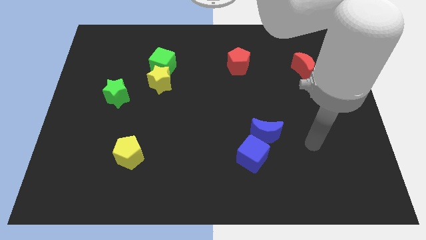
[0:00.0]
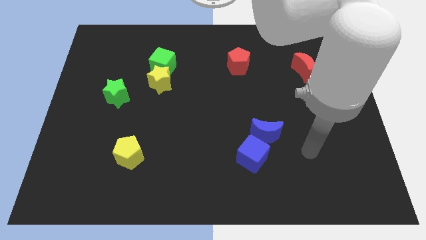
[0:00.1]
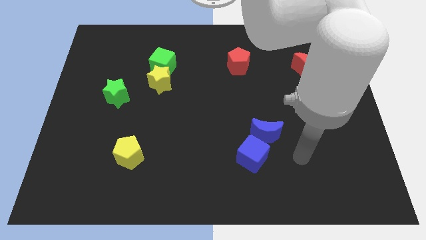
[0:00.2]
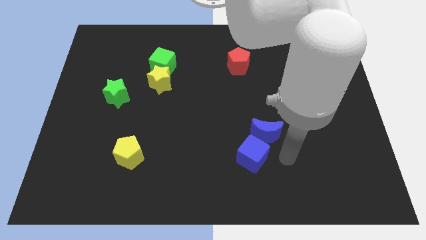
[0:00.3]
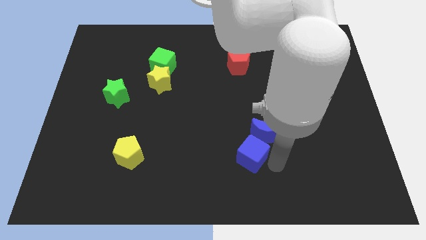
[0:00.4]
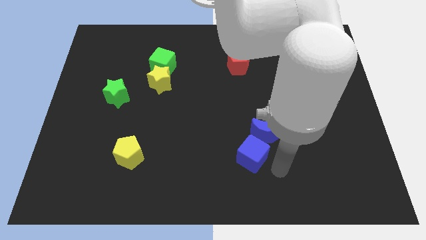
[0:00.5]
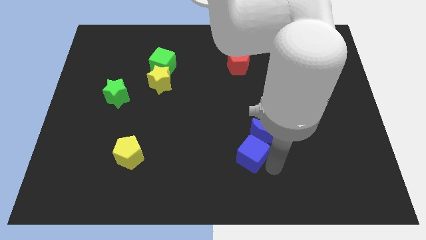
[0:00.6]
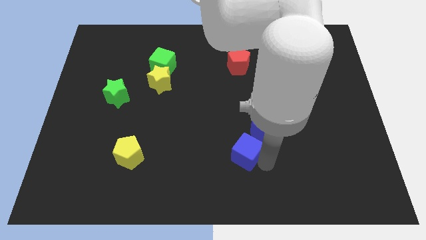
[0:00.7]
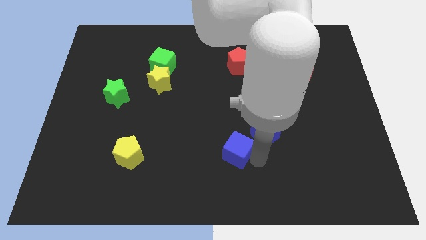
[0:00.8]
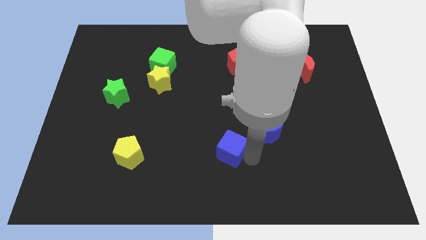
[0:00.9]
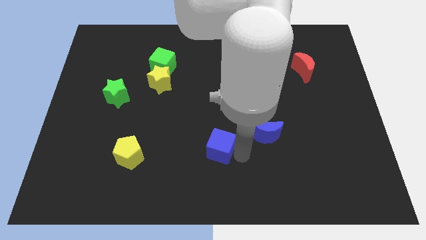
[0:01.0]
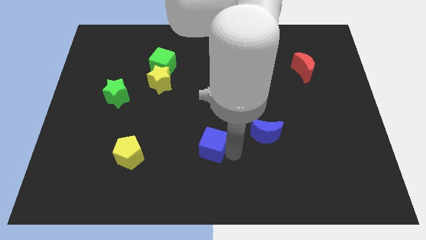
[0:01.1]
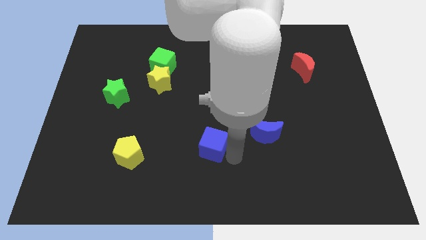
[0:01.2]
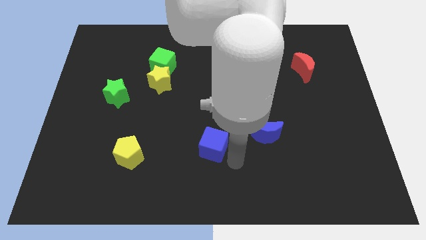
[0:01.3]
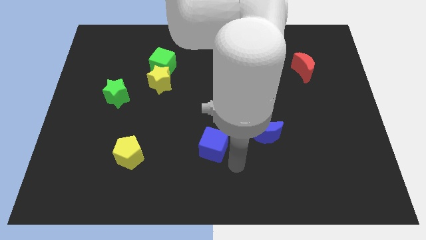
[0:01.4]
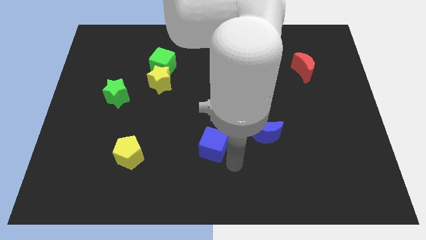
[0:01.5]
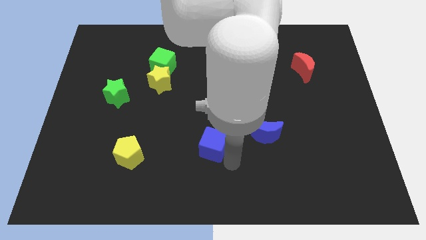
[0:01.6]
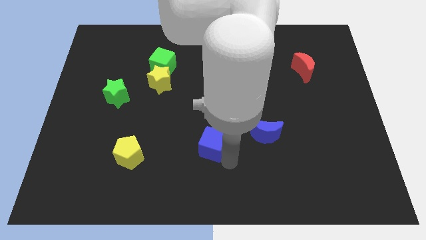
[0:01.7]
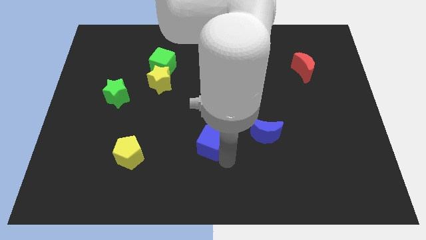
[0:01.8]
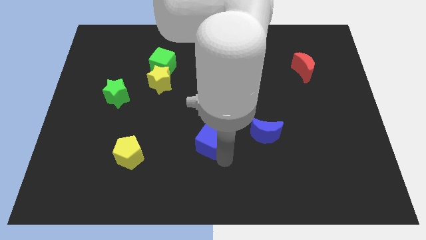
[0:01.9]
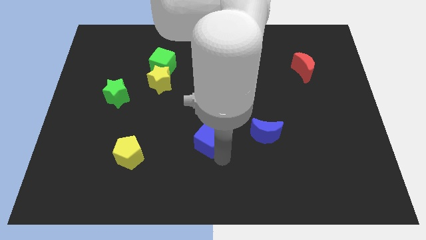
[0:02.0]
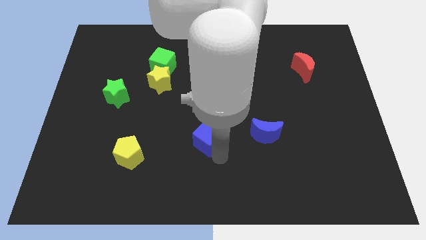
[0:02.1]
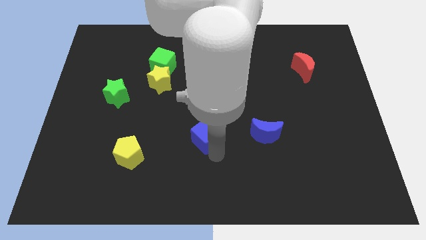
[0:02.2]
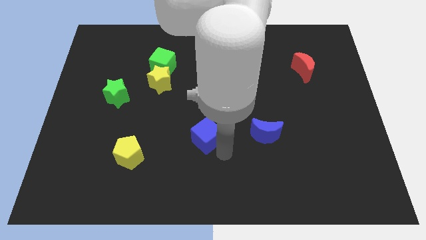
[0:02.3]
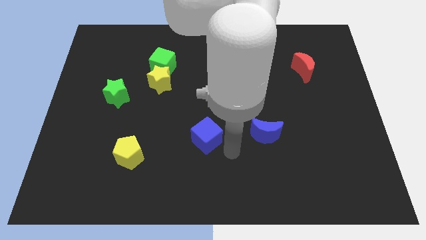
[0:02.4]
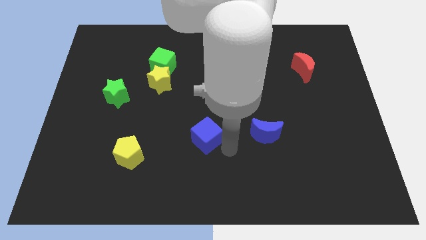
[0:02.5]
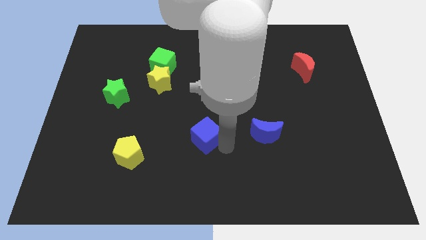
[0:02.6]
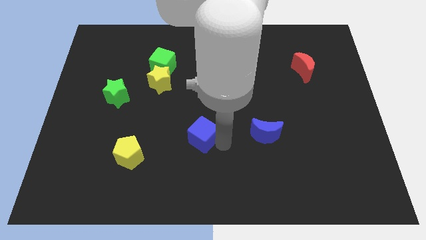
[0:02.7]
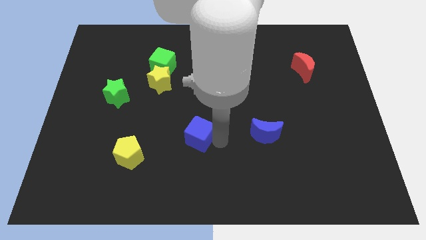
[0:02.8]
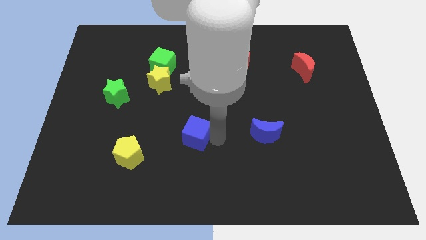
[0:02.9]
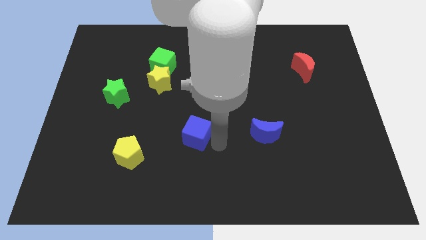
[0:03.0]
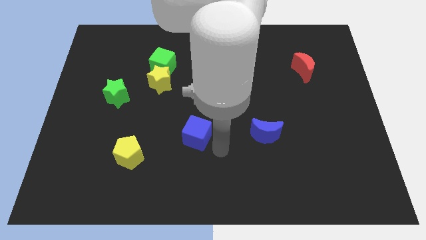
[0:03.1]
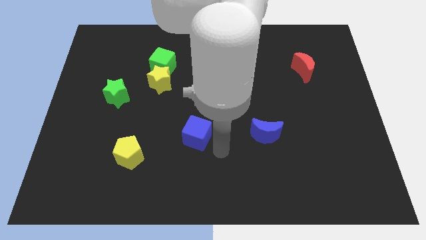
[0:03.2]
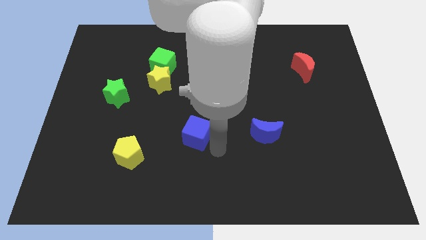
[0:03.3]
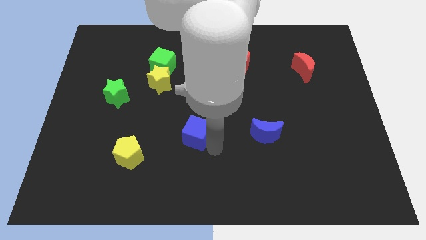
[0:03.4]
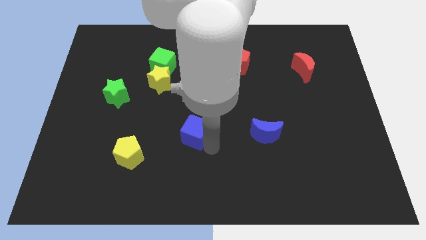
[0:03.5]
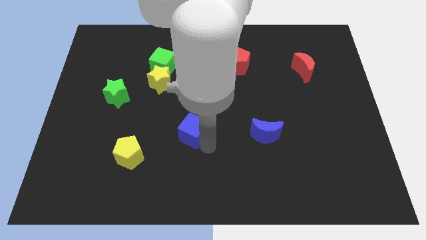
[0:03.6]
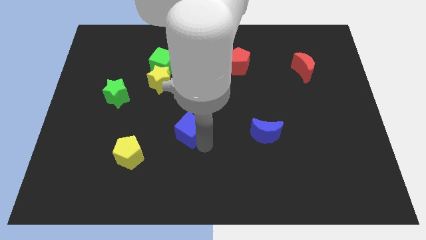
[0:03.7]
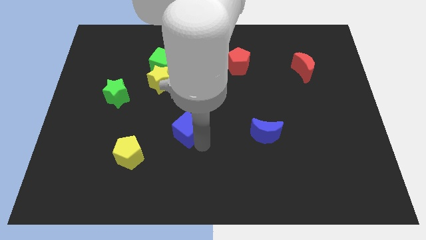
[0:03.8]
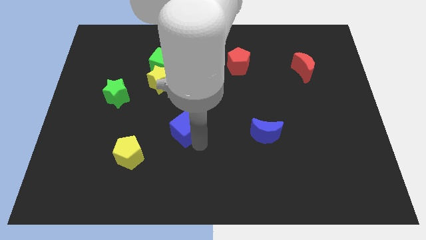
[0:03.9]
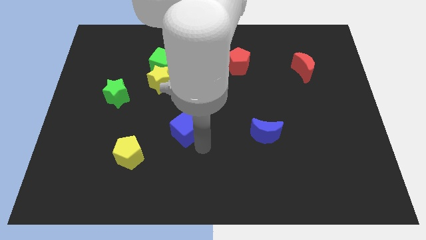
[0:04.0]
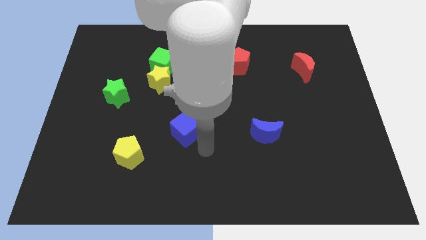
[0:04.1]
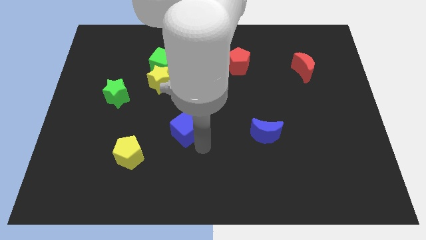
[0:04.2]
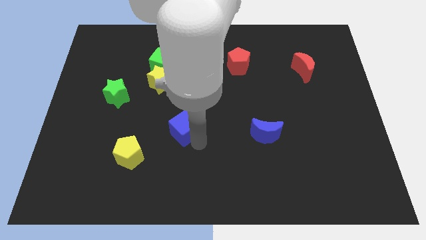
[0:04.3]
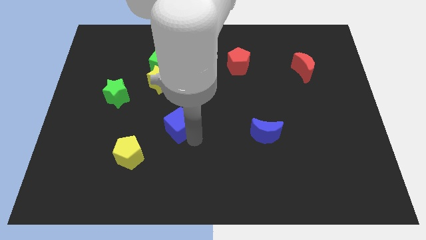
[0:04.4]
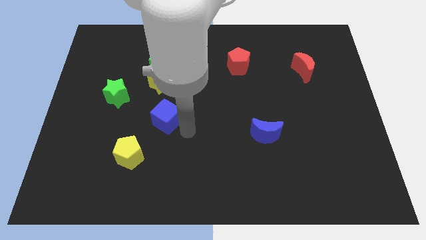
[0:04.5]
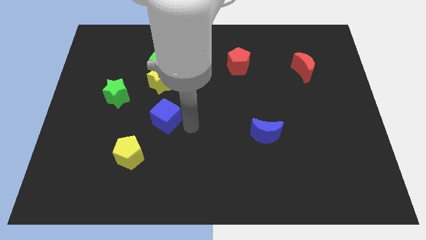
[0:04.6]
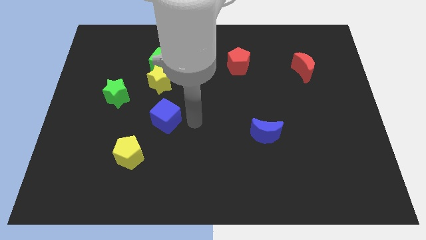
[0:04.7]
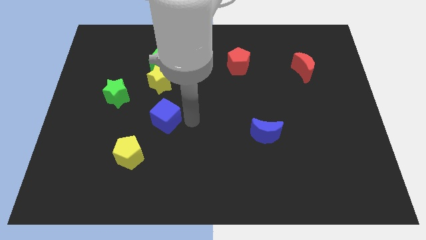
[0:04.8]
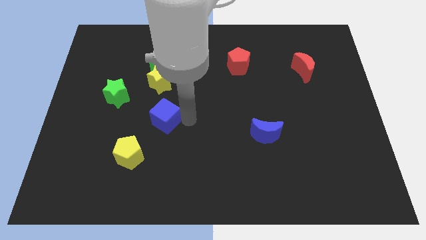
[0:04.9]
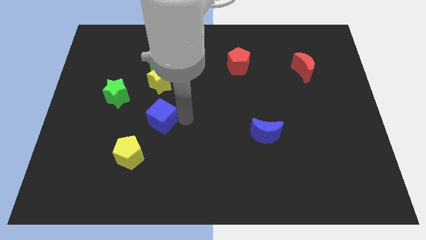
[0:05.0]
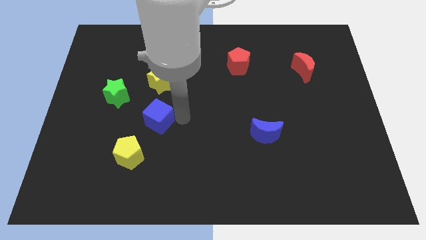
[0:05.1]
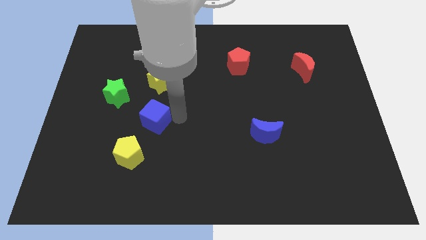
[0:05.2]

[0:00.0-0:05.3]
push the blue cube to the top of the yellow pentagon

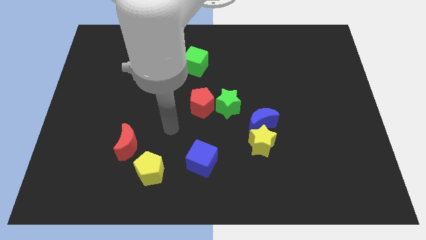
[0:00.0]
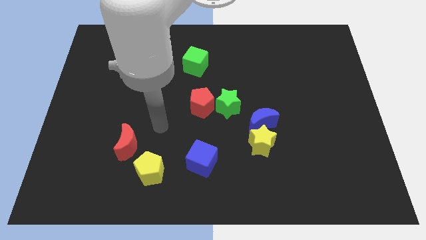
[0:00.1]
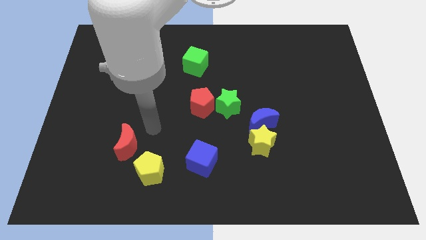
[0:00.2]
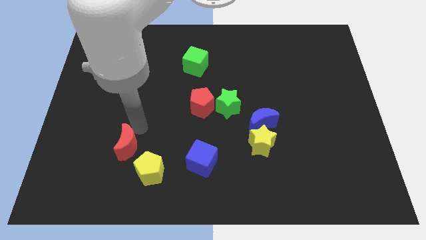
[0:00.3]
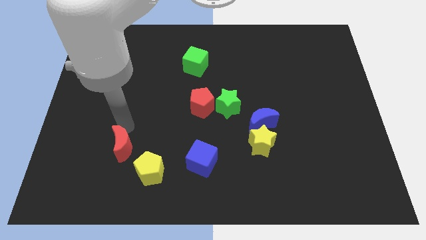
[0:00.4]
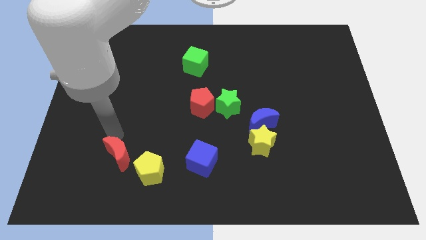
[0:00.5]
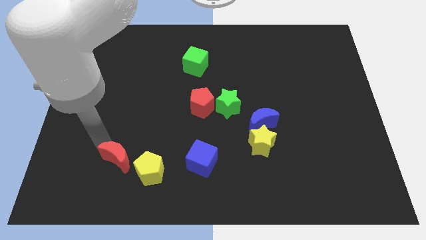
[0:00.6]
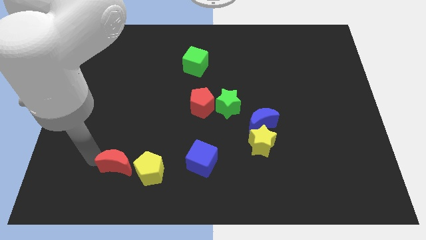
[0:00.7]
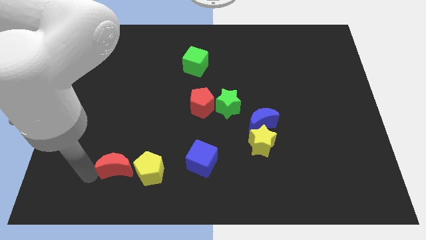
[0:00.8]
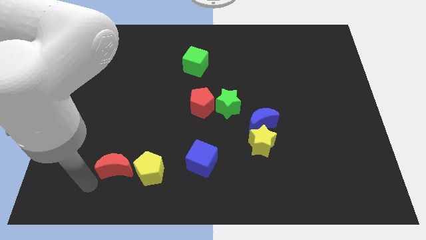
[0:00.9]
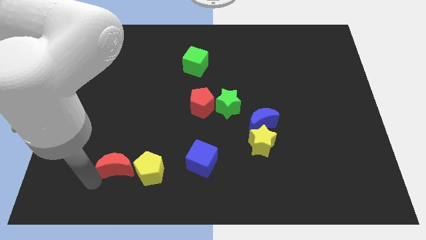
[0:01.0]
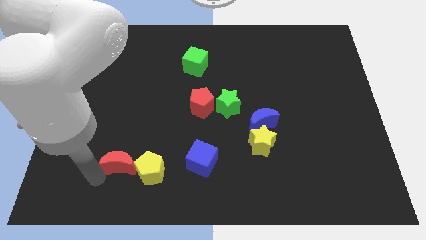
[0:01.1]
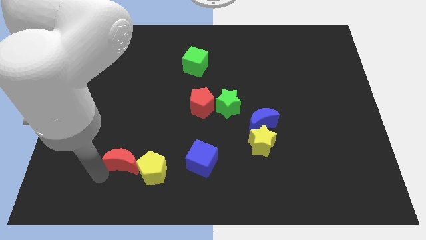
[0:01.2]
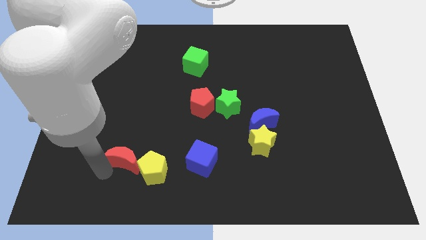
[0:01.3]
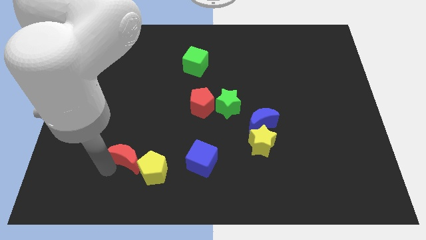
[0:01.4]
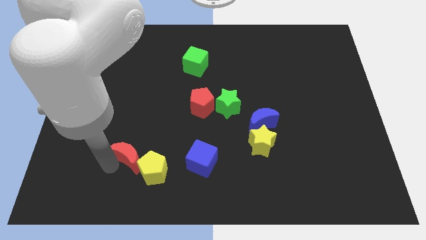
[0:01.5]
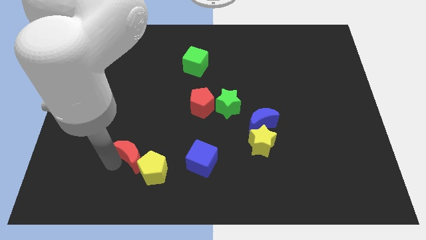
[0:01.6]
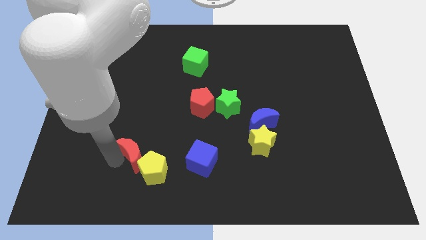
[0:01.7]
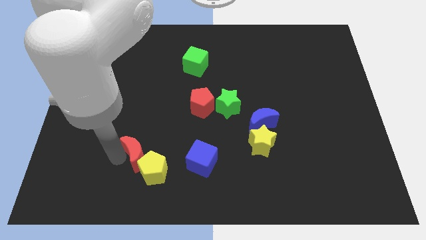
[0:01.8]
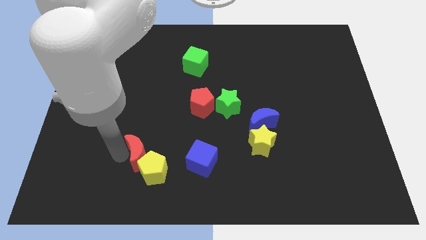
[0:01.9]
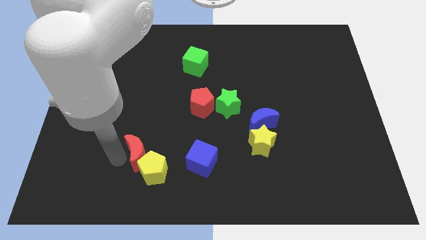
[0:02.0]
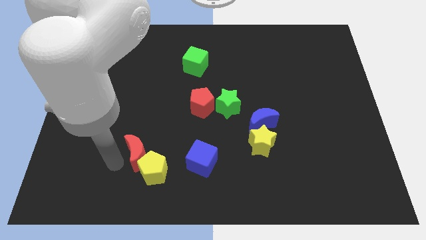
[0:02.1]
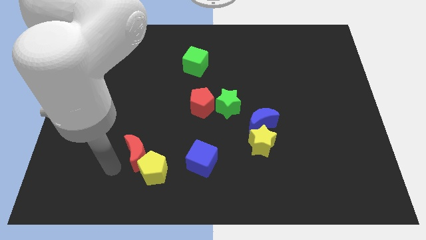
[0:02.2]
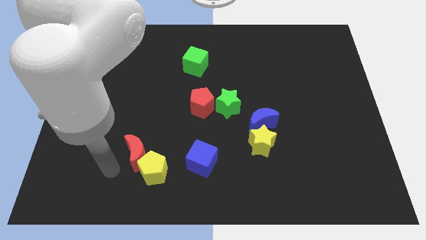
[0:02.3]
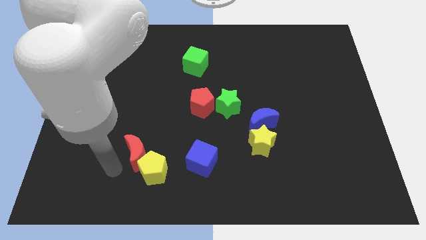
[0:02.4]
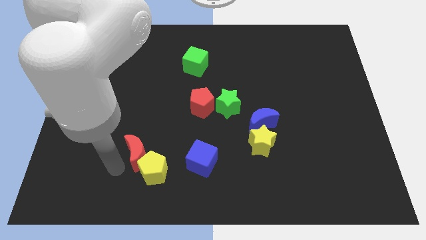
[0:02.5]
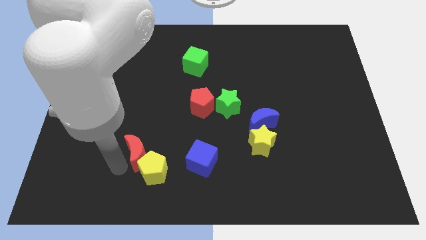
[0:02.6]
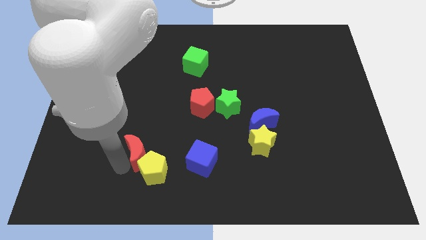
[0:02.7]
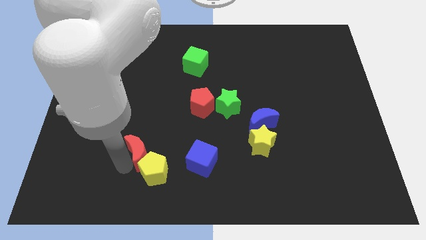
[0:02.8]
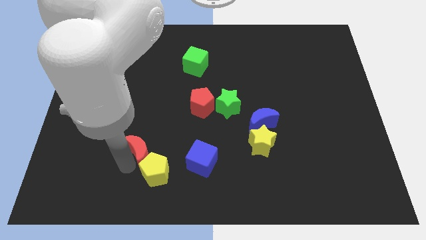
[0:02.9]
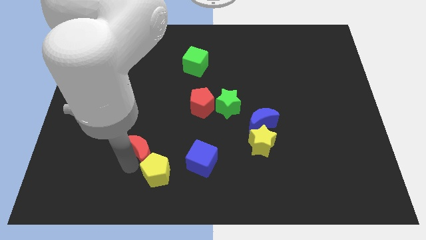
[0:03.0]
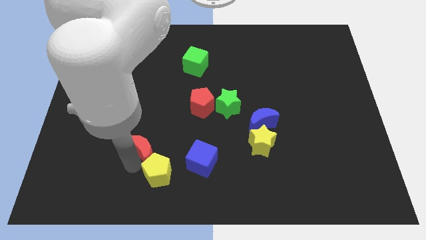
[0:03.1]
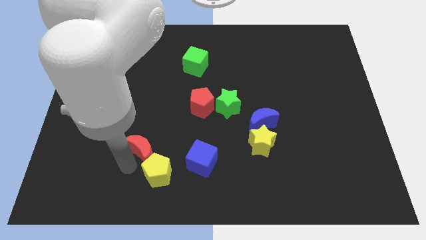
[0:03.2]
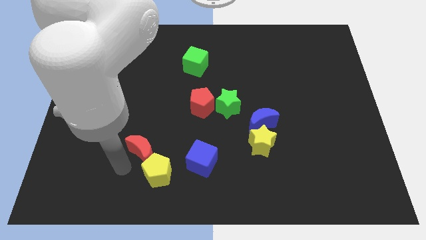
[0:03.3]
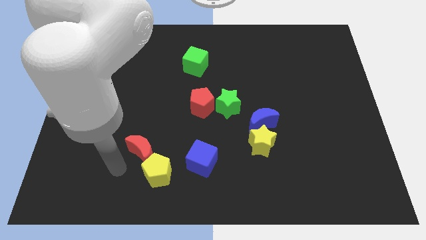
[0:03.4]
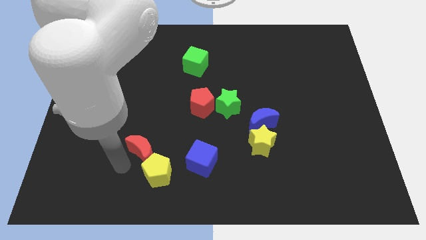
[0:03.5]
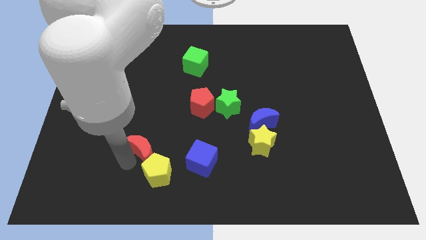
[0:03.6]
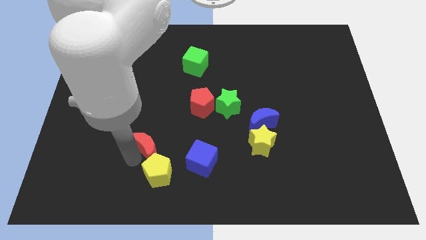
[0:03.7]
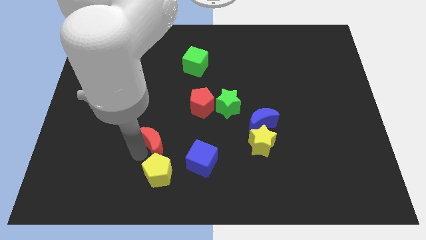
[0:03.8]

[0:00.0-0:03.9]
move the red moon to the top left of the blue cube
